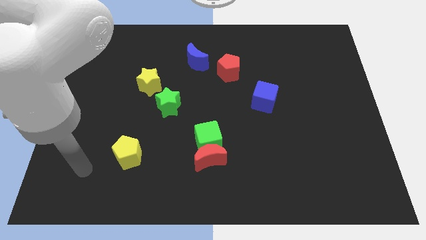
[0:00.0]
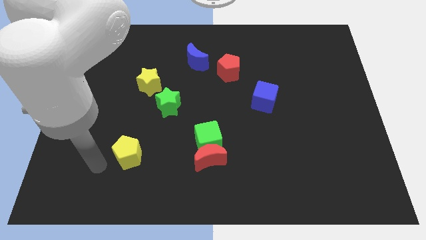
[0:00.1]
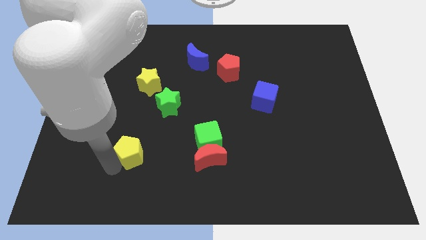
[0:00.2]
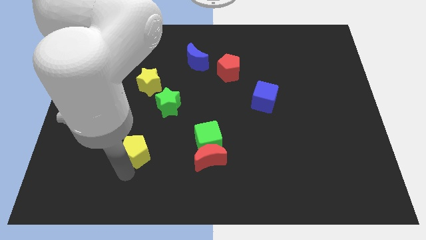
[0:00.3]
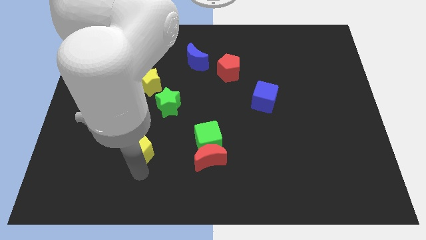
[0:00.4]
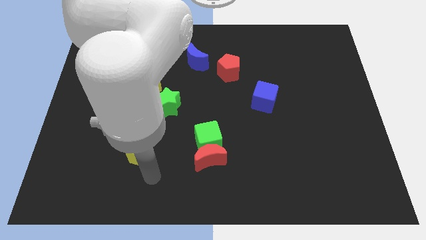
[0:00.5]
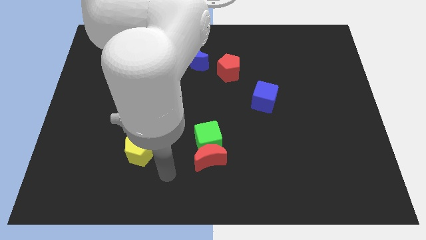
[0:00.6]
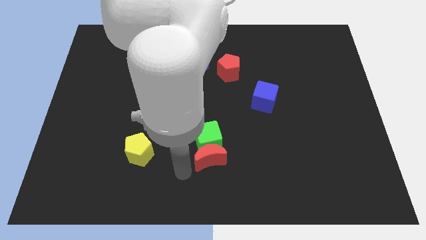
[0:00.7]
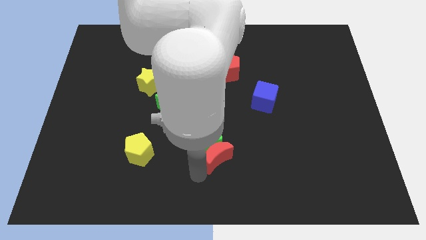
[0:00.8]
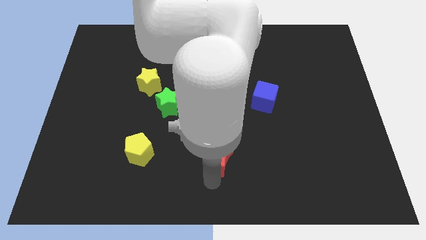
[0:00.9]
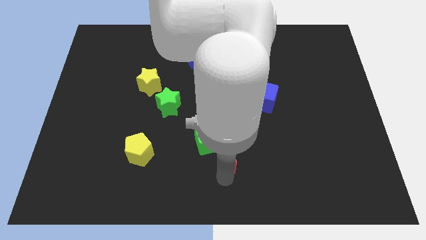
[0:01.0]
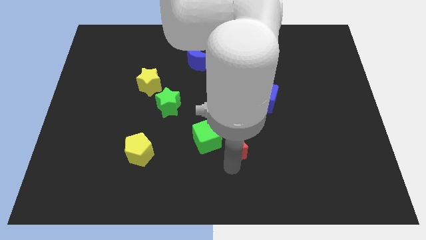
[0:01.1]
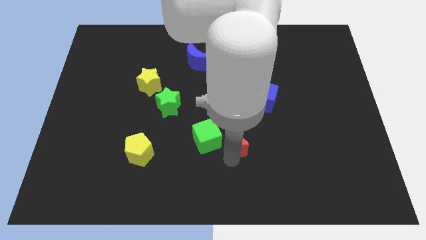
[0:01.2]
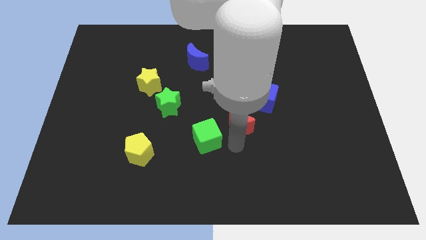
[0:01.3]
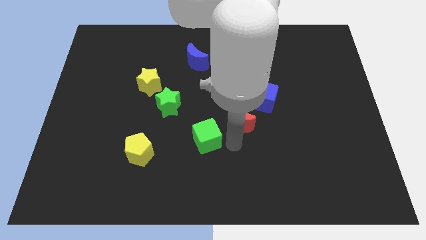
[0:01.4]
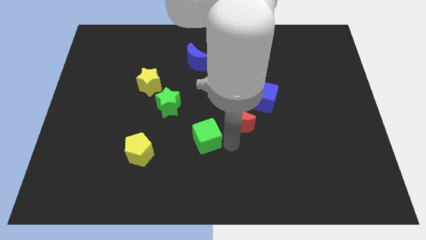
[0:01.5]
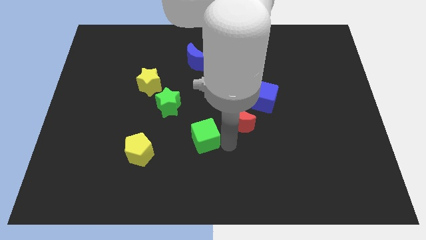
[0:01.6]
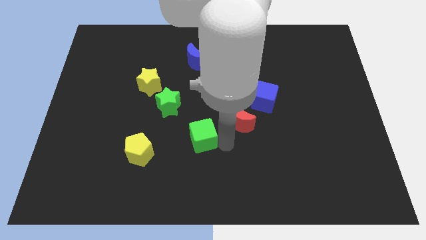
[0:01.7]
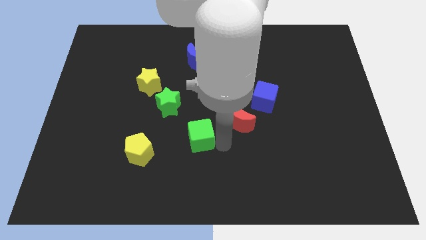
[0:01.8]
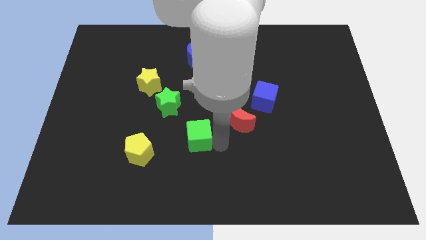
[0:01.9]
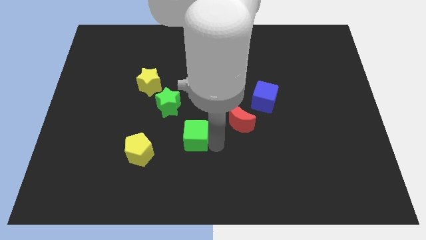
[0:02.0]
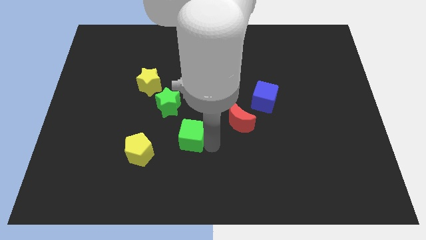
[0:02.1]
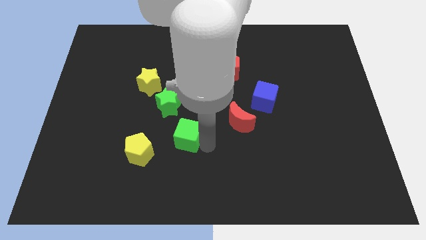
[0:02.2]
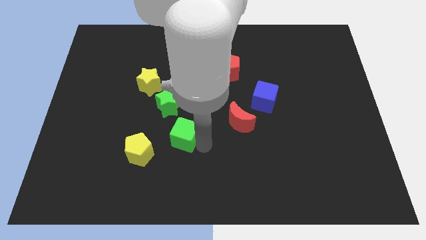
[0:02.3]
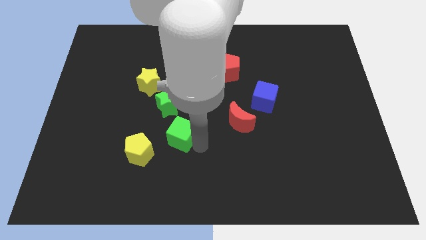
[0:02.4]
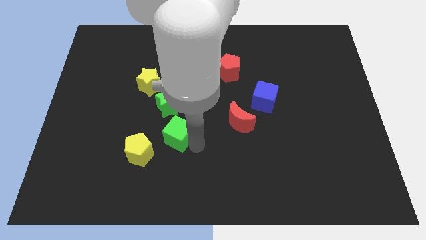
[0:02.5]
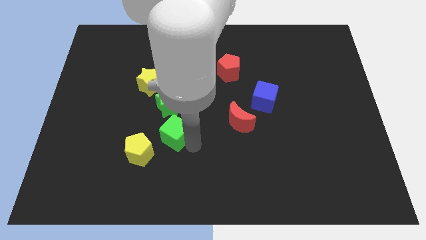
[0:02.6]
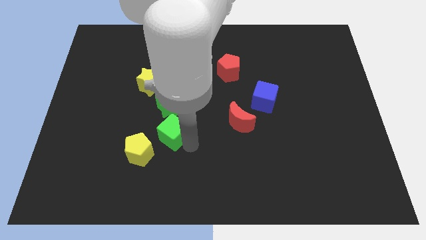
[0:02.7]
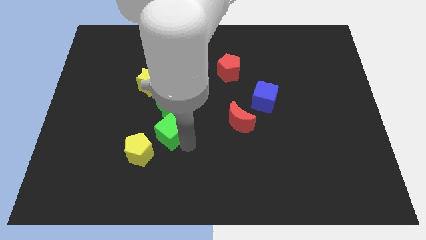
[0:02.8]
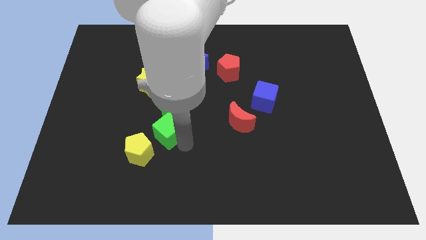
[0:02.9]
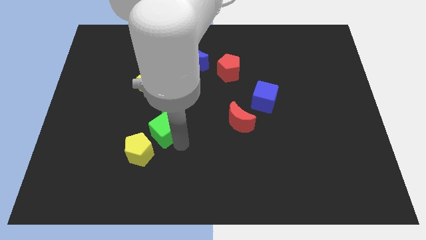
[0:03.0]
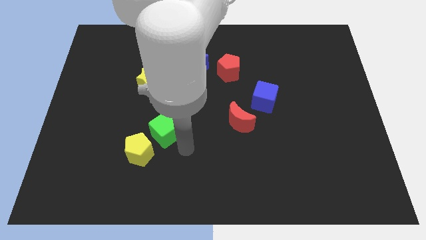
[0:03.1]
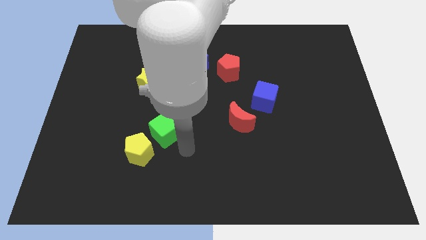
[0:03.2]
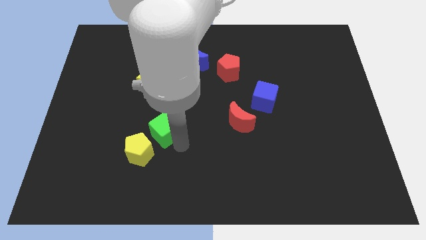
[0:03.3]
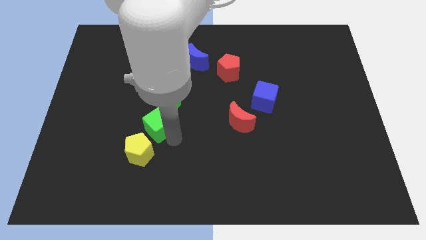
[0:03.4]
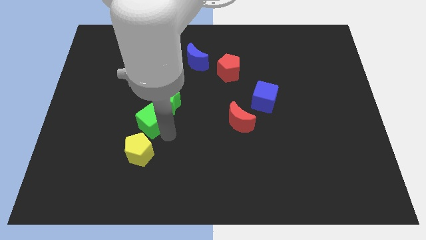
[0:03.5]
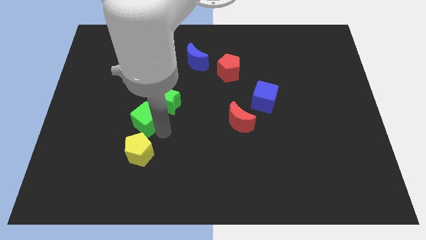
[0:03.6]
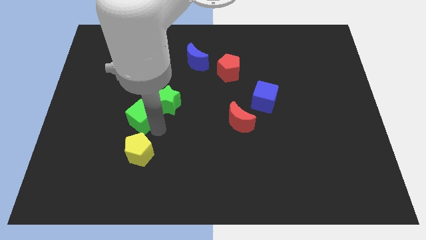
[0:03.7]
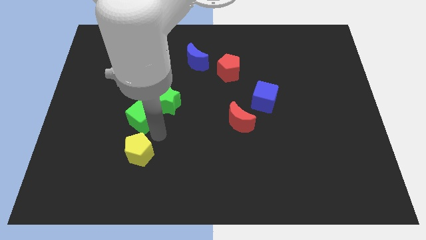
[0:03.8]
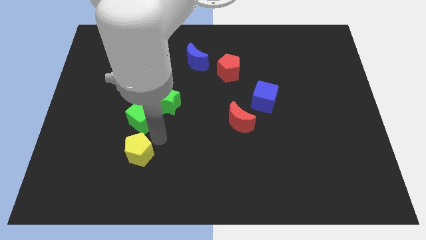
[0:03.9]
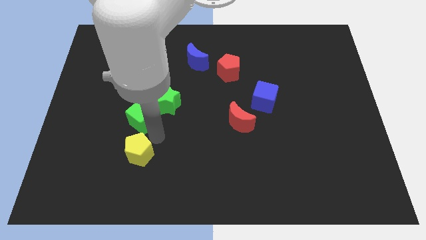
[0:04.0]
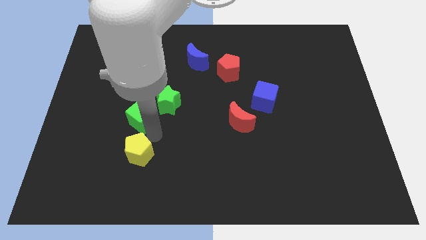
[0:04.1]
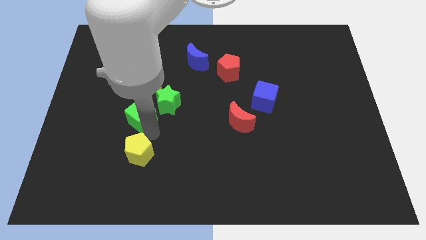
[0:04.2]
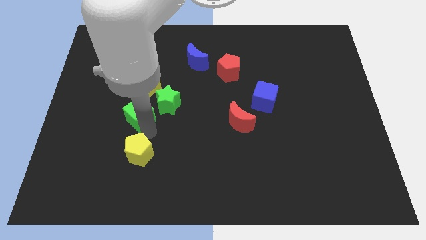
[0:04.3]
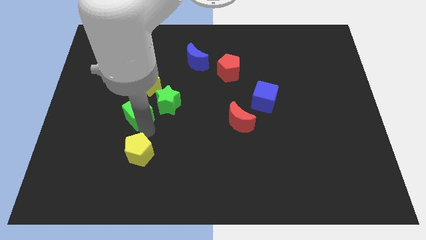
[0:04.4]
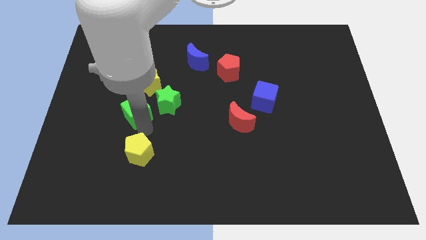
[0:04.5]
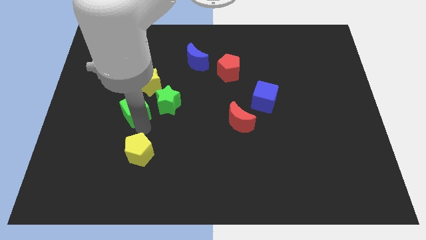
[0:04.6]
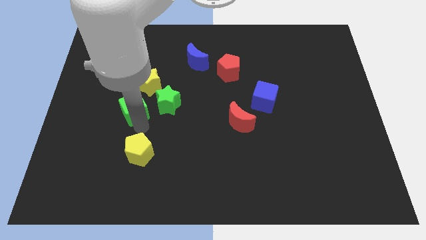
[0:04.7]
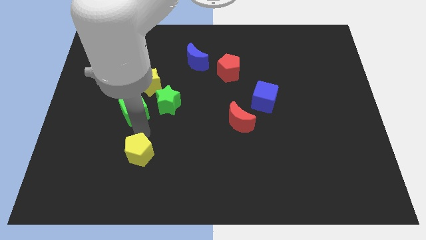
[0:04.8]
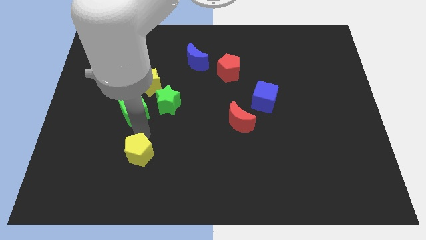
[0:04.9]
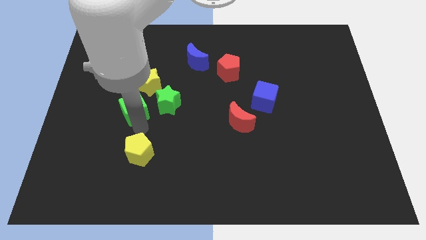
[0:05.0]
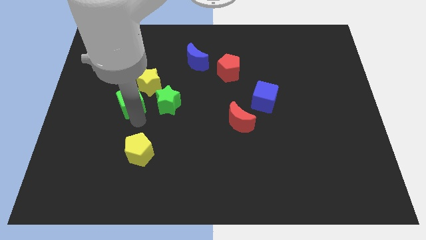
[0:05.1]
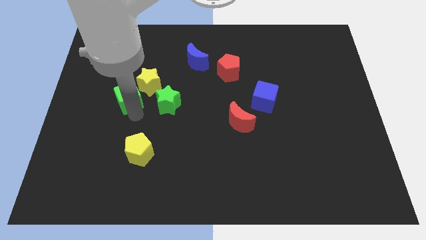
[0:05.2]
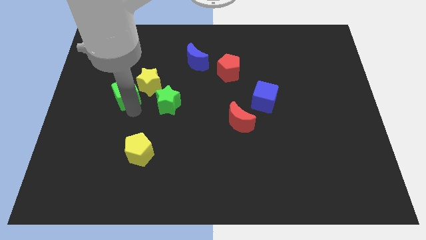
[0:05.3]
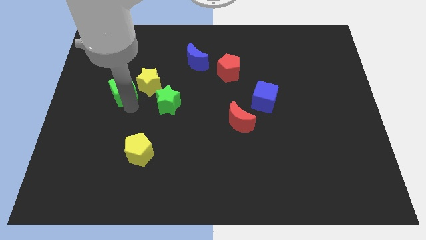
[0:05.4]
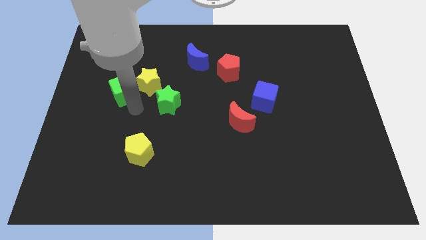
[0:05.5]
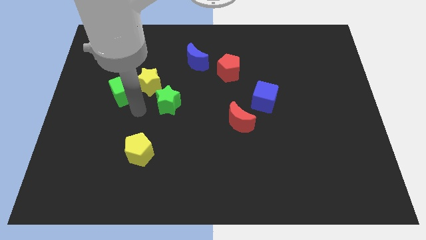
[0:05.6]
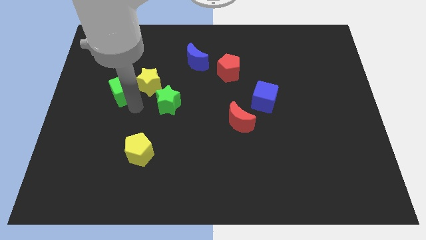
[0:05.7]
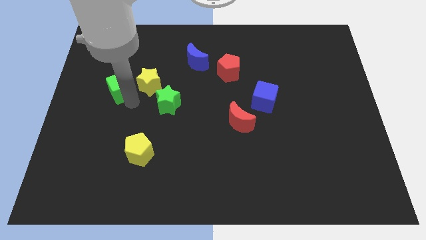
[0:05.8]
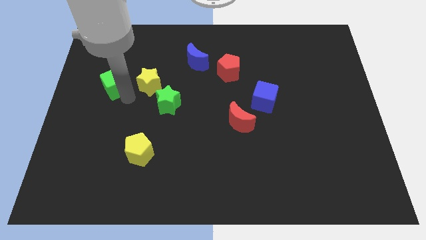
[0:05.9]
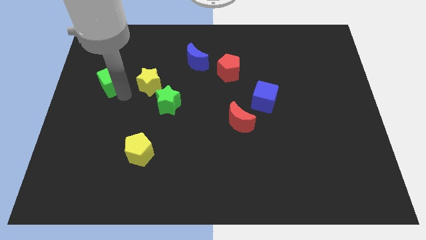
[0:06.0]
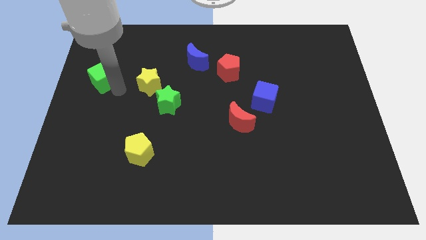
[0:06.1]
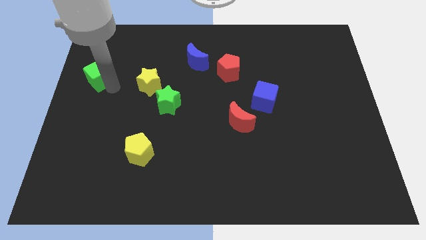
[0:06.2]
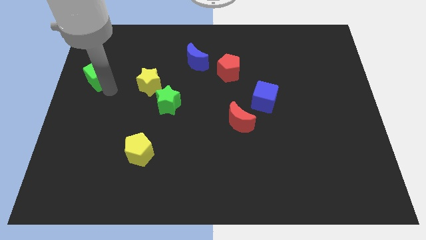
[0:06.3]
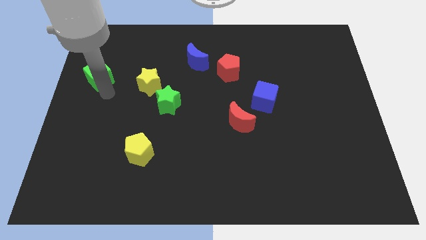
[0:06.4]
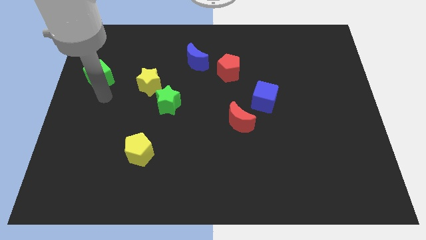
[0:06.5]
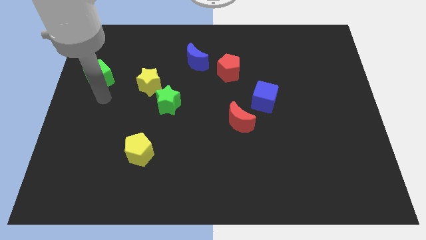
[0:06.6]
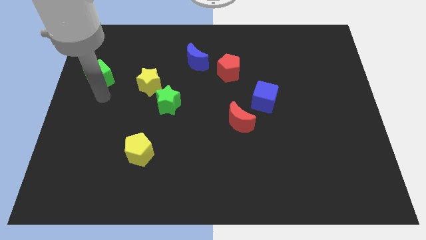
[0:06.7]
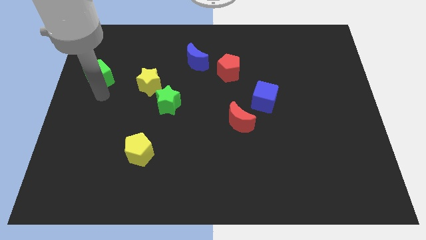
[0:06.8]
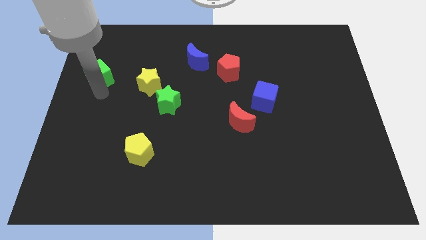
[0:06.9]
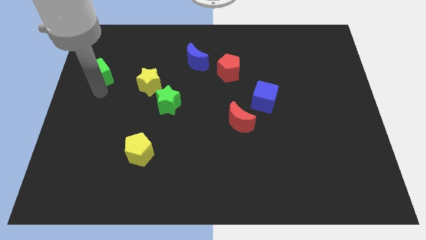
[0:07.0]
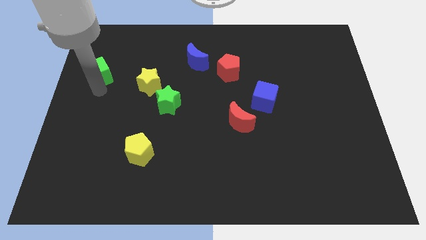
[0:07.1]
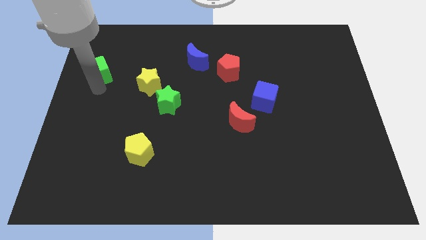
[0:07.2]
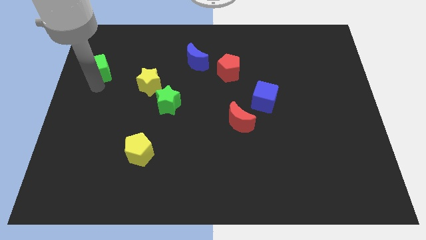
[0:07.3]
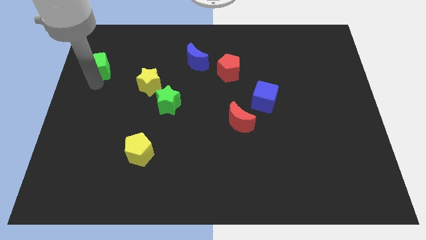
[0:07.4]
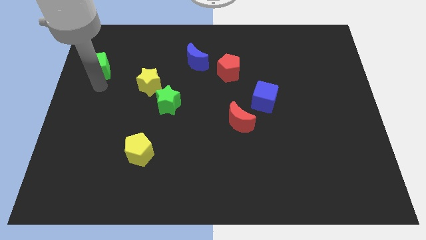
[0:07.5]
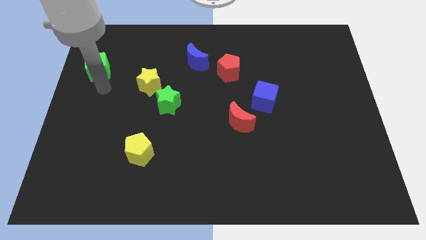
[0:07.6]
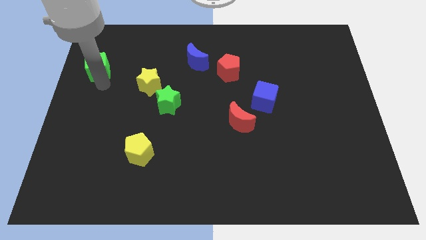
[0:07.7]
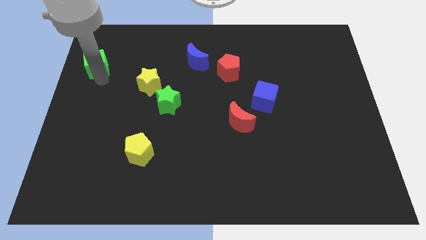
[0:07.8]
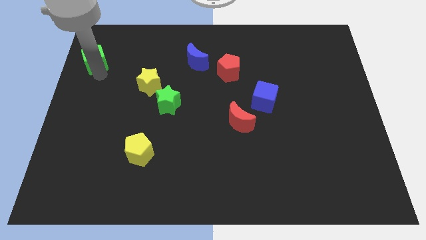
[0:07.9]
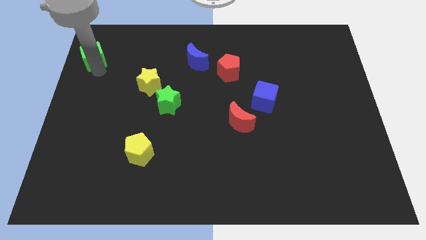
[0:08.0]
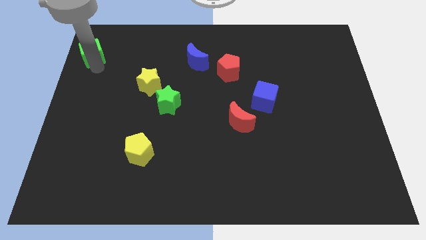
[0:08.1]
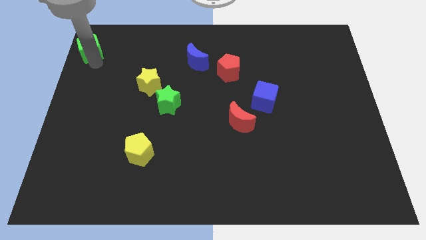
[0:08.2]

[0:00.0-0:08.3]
move the green cube to the top left of the board
